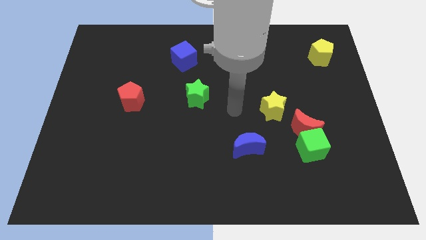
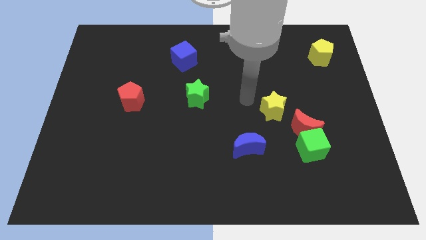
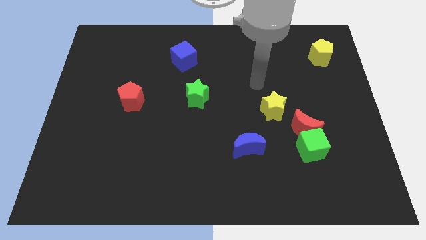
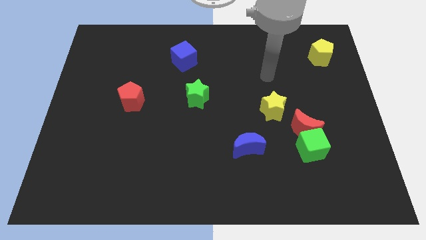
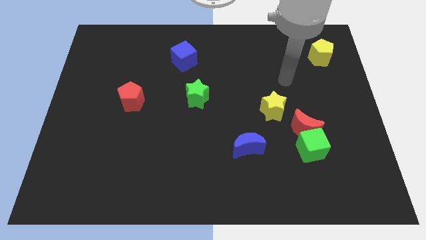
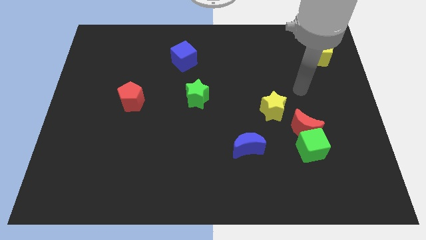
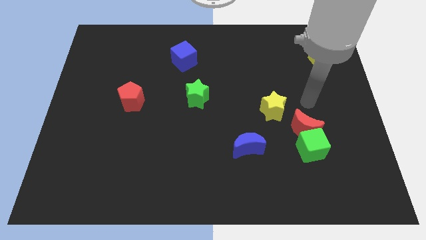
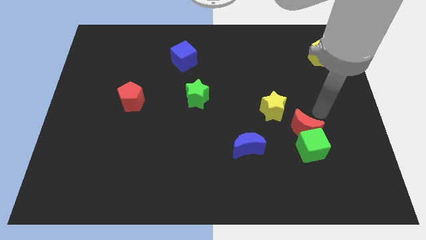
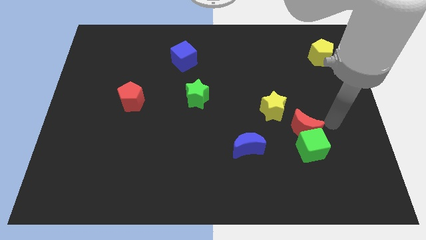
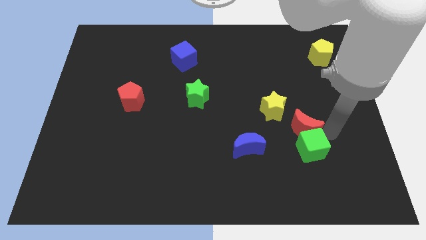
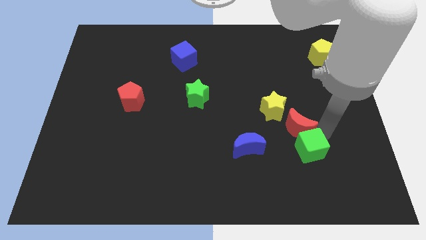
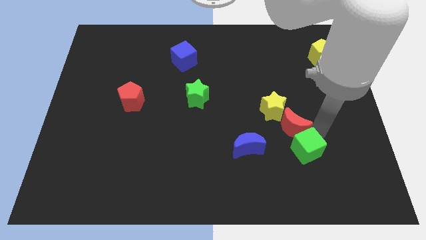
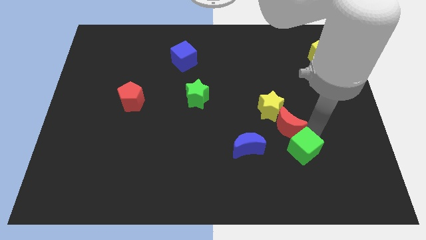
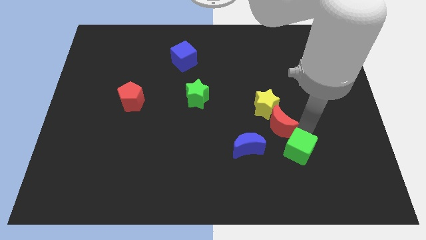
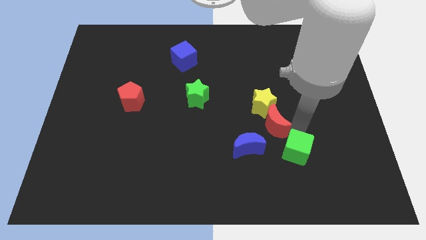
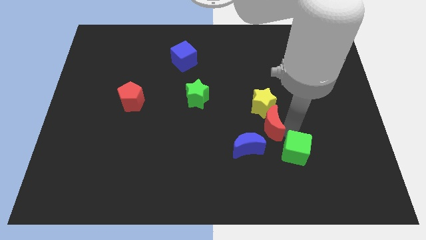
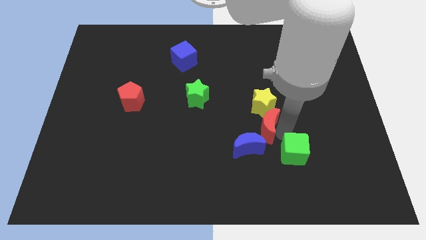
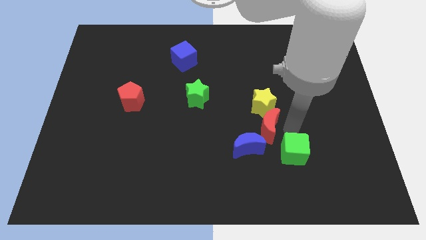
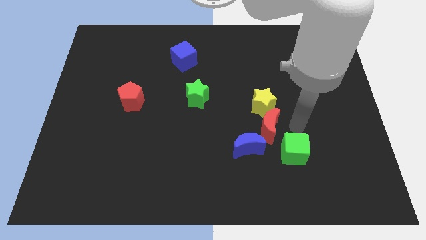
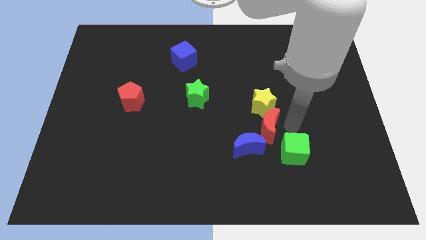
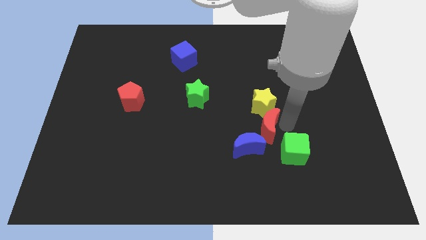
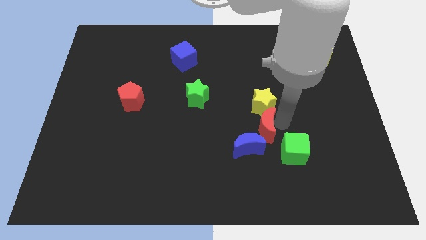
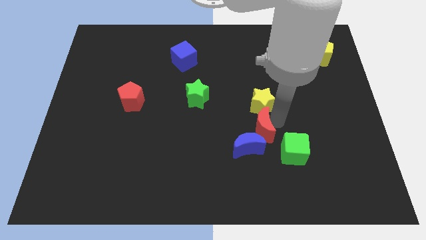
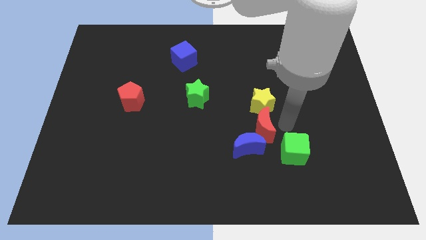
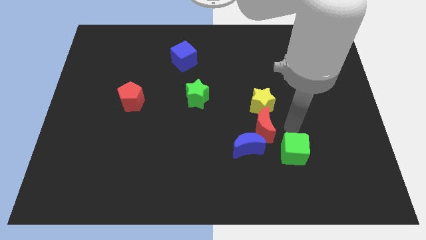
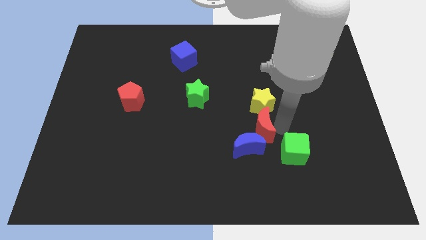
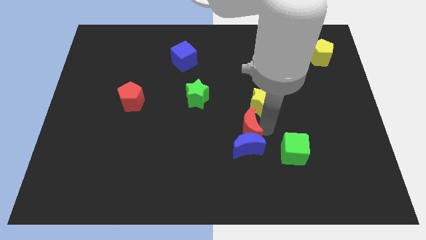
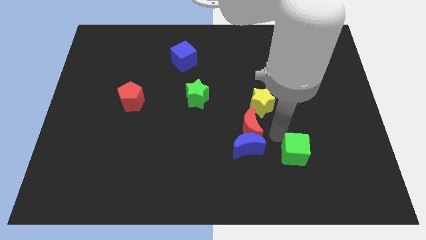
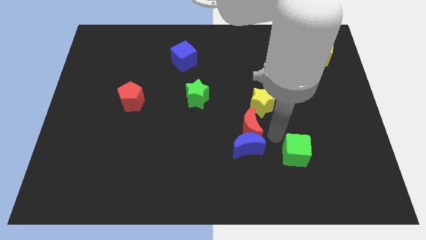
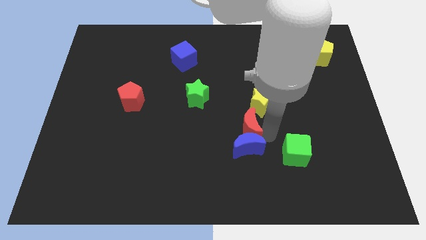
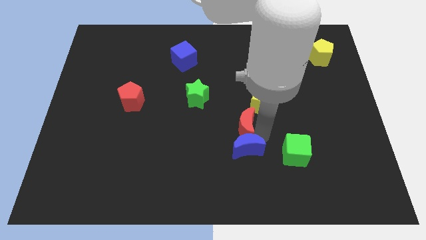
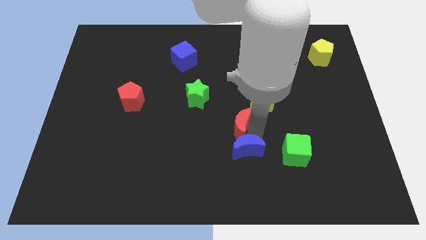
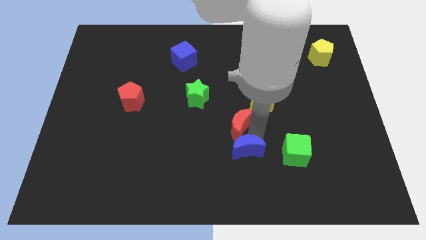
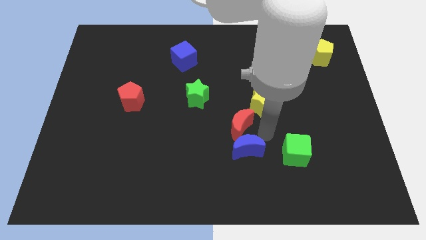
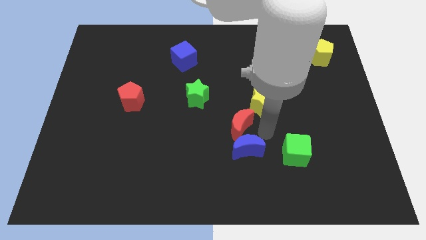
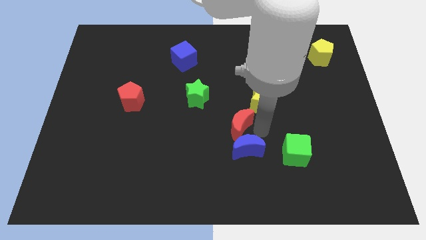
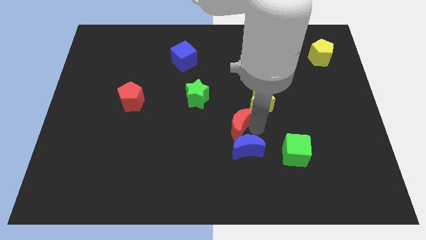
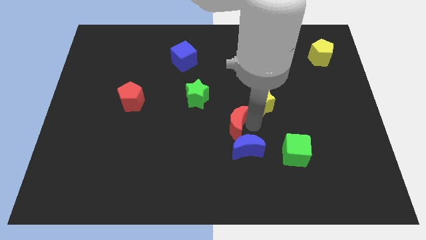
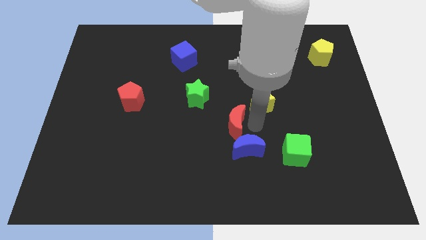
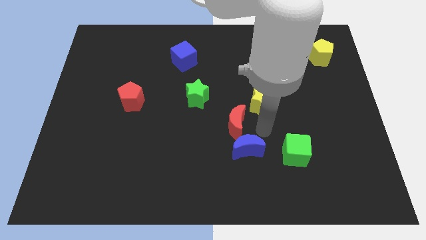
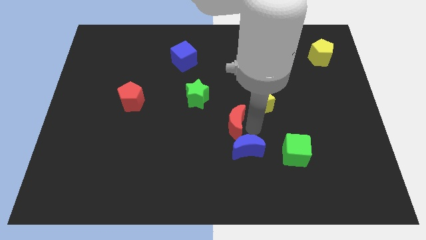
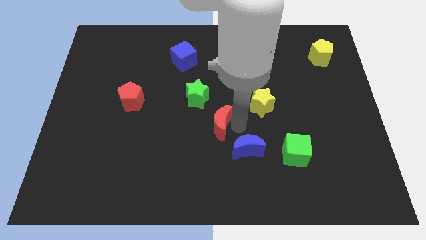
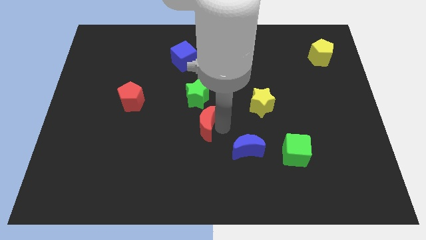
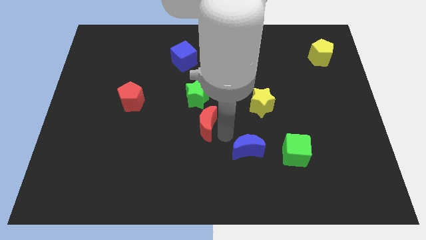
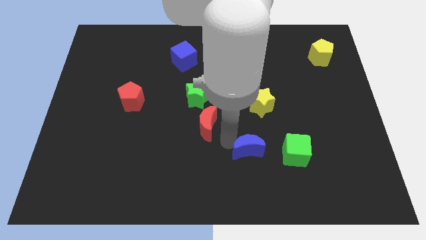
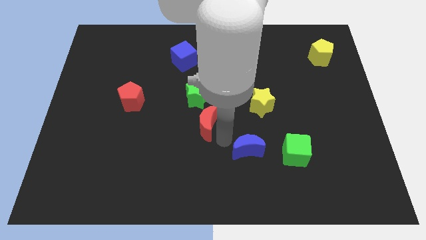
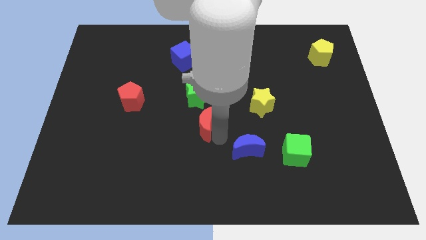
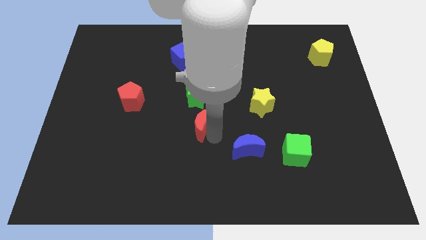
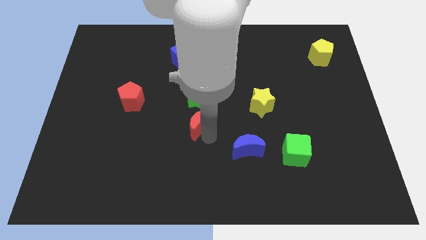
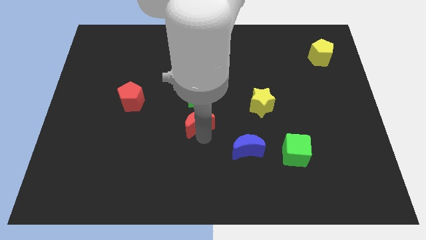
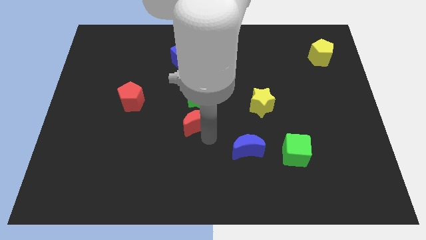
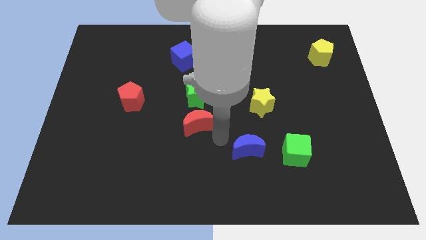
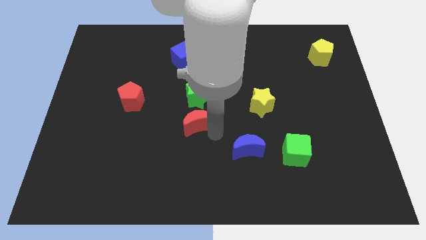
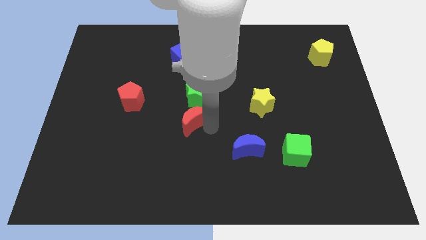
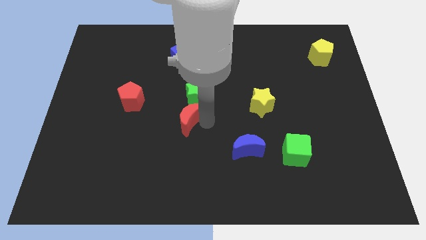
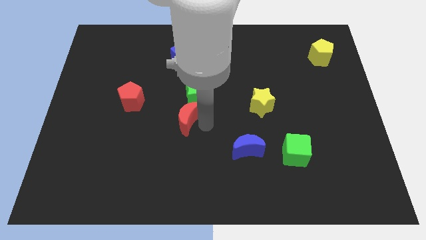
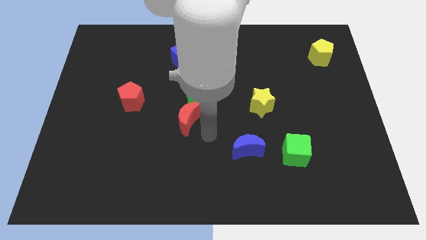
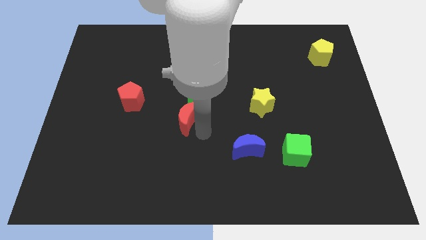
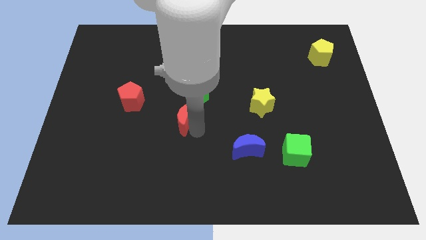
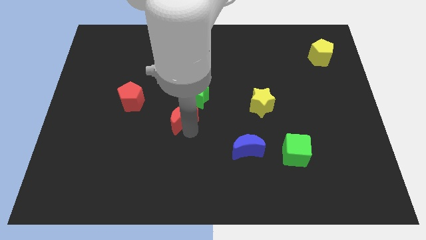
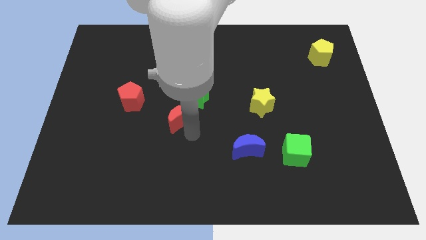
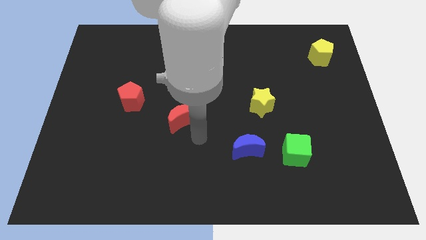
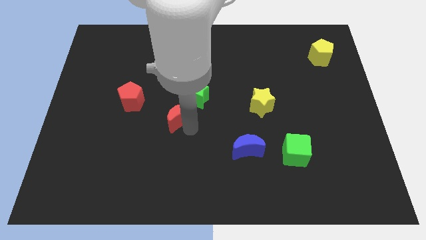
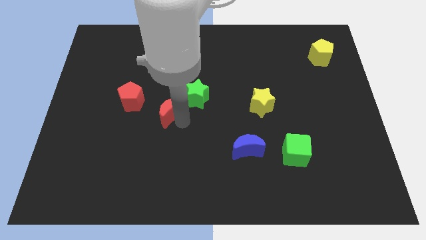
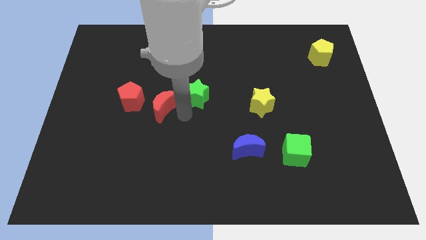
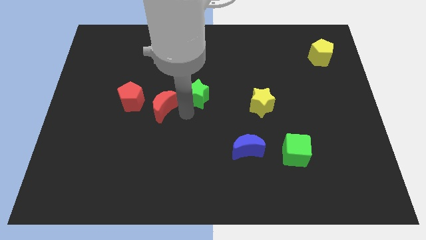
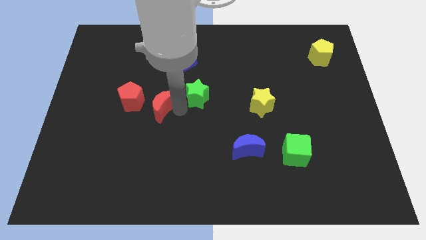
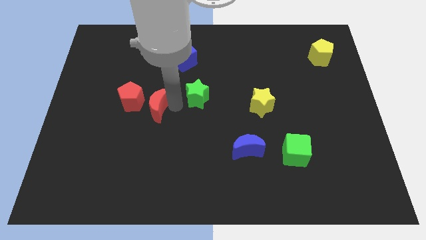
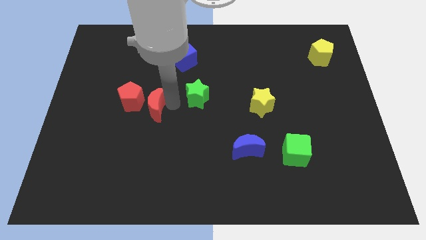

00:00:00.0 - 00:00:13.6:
push the red moon next to the red pentagon
